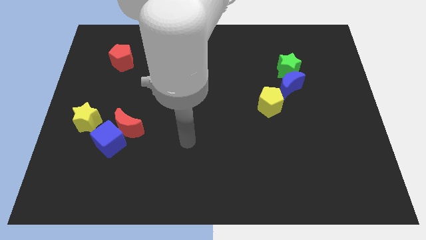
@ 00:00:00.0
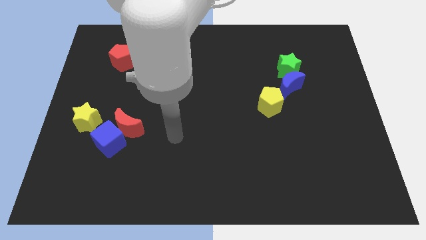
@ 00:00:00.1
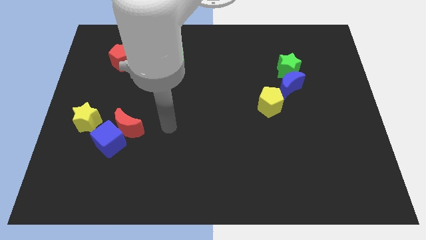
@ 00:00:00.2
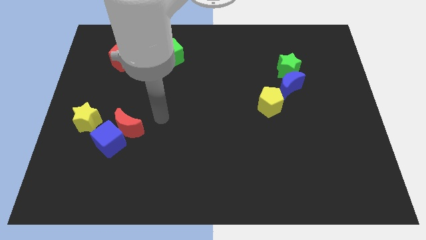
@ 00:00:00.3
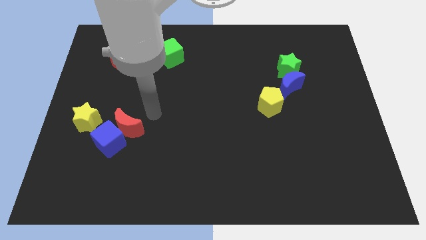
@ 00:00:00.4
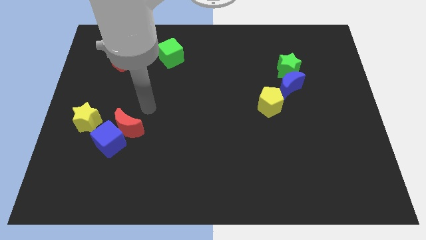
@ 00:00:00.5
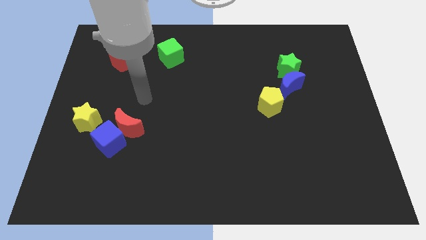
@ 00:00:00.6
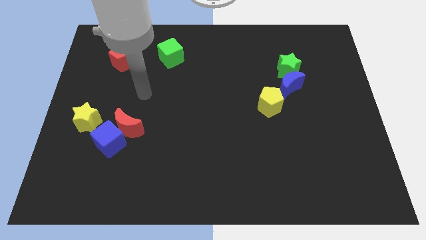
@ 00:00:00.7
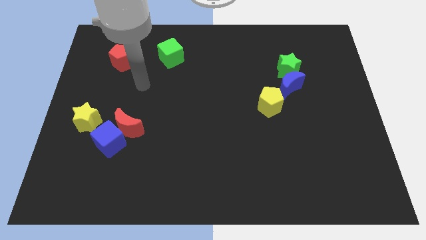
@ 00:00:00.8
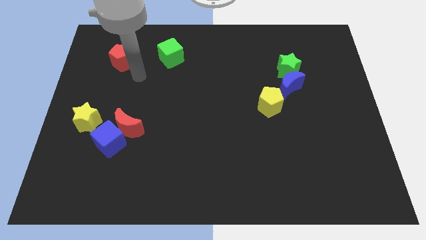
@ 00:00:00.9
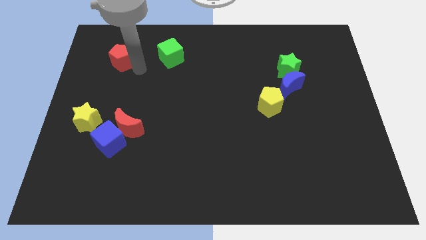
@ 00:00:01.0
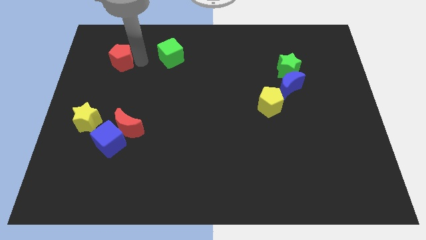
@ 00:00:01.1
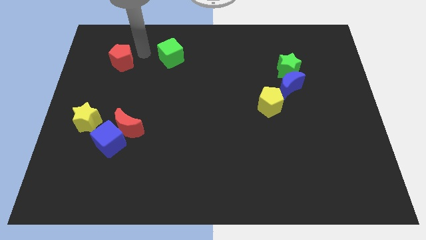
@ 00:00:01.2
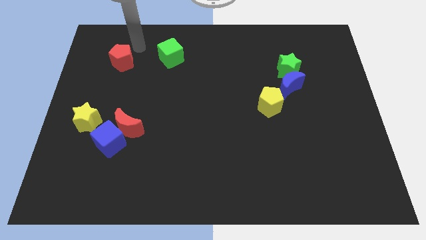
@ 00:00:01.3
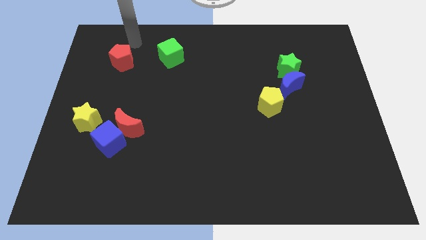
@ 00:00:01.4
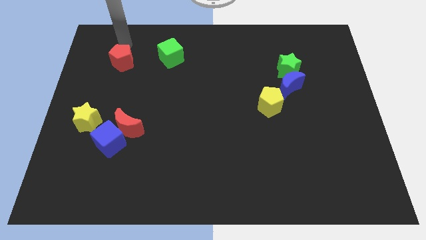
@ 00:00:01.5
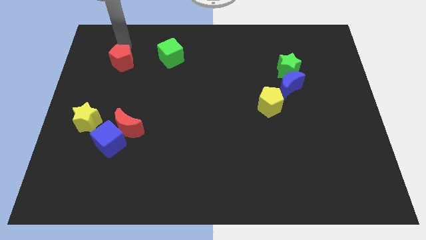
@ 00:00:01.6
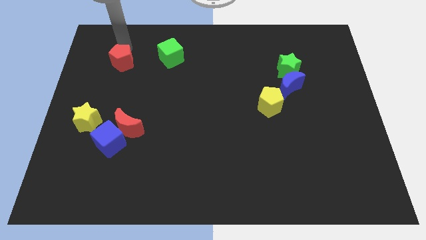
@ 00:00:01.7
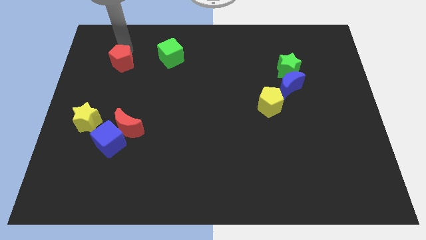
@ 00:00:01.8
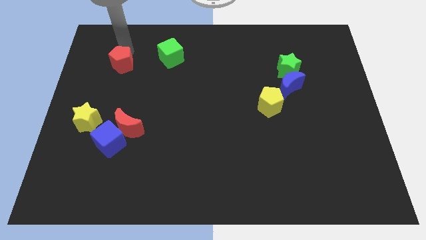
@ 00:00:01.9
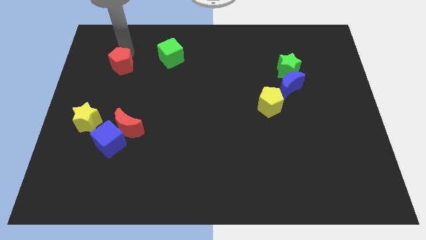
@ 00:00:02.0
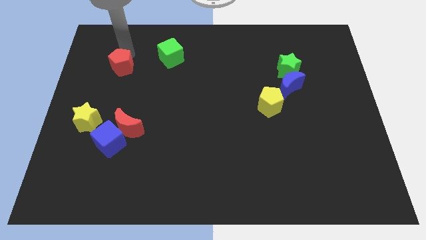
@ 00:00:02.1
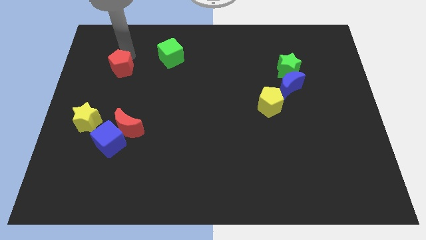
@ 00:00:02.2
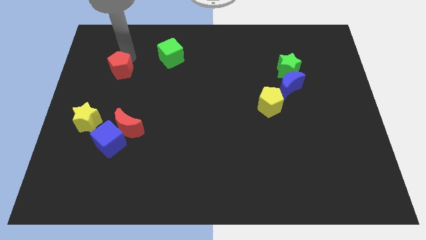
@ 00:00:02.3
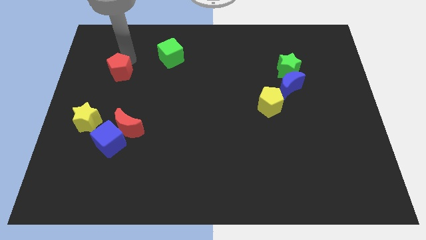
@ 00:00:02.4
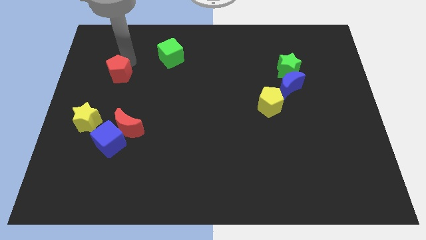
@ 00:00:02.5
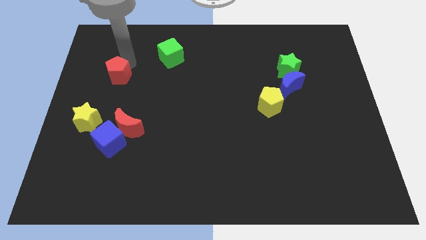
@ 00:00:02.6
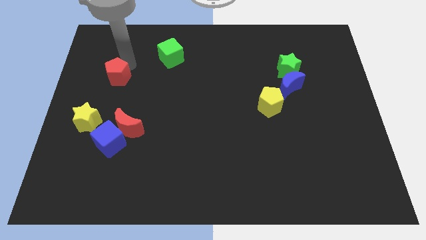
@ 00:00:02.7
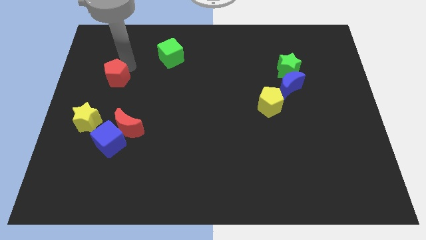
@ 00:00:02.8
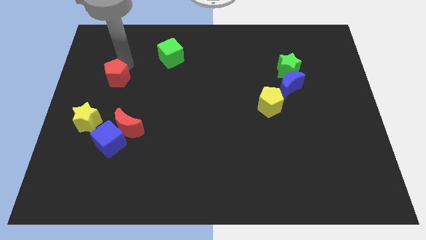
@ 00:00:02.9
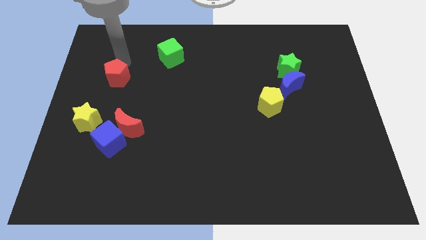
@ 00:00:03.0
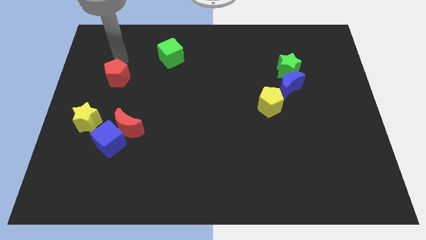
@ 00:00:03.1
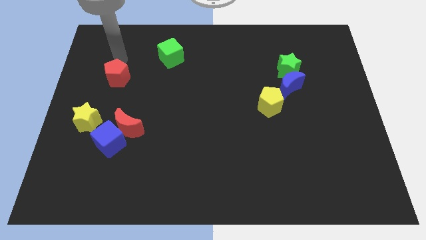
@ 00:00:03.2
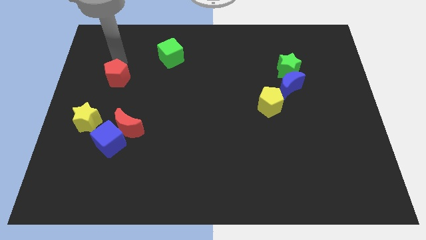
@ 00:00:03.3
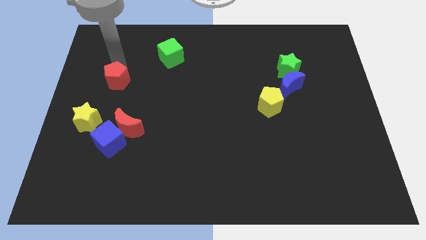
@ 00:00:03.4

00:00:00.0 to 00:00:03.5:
slide the red pentagon a little down

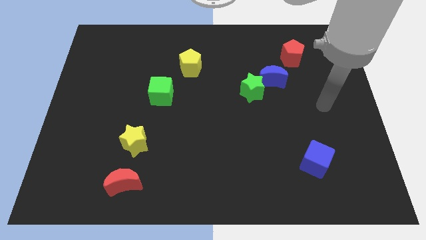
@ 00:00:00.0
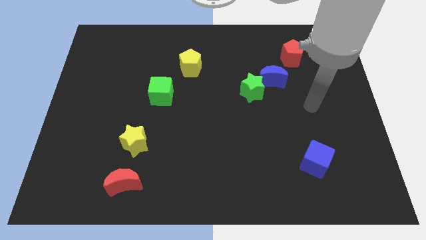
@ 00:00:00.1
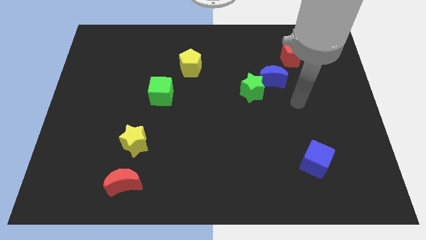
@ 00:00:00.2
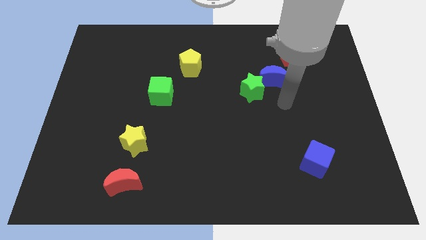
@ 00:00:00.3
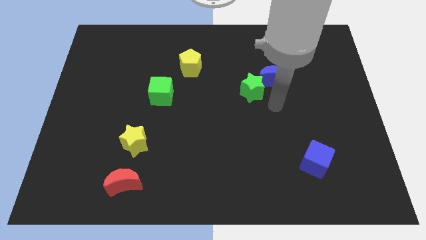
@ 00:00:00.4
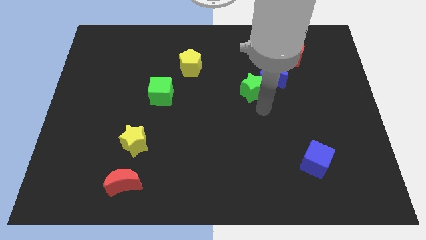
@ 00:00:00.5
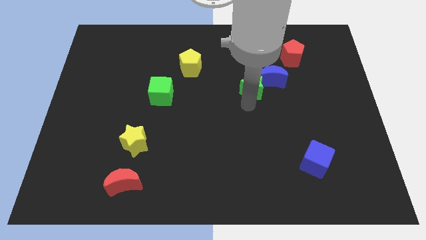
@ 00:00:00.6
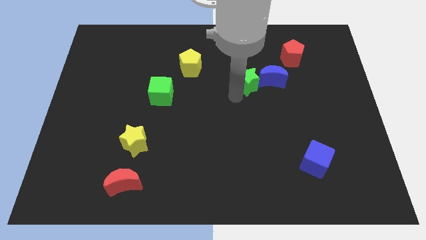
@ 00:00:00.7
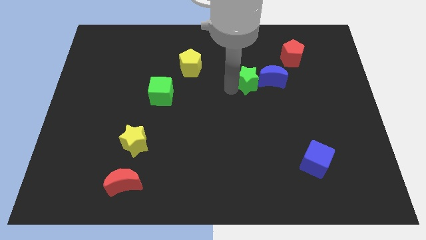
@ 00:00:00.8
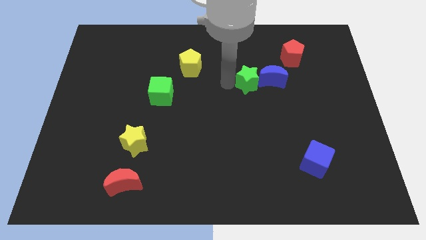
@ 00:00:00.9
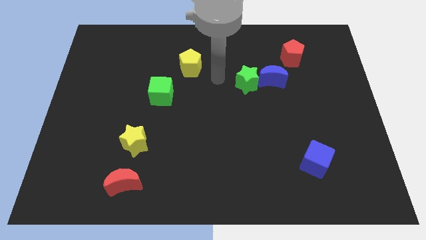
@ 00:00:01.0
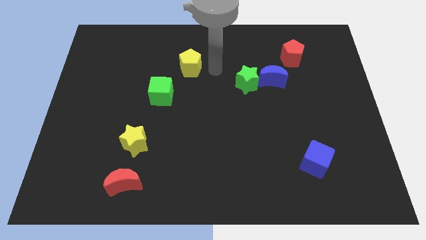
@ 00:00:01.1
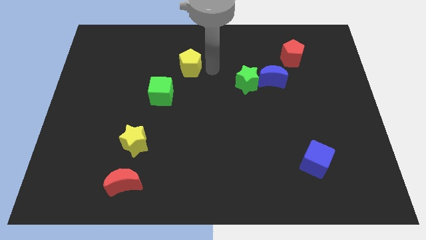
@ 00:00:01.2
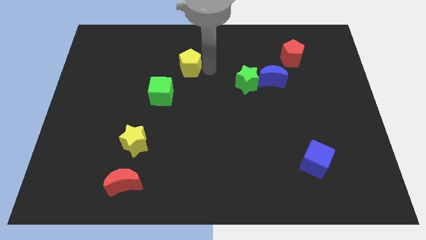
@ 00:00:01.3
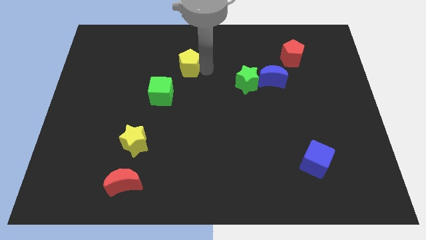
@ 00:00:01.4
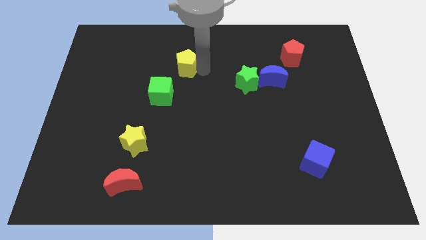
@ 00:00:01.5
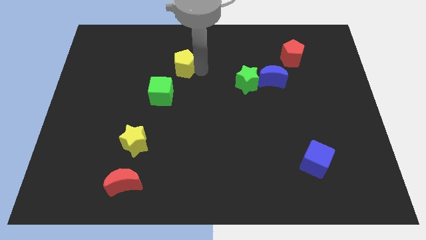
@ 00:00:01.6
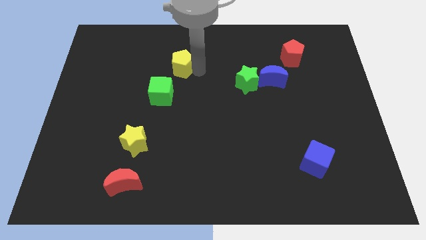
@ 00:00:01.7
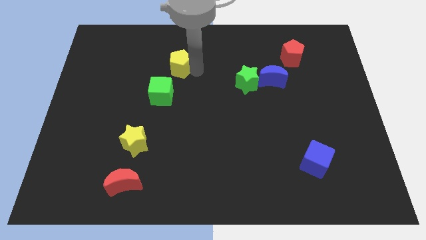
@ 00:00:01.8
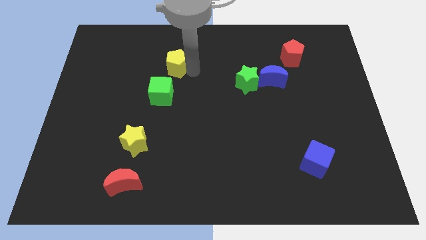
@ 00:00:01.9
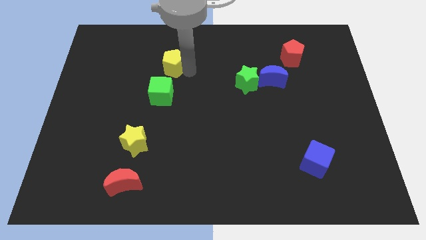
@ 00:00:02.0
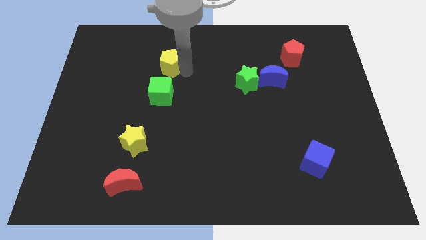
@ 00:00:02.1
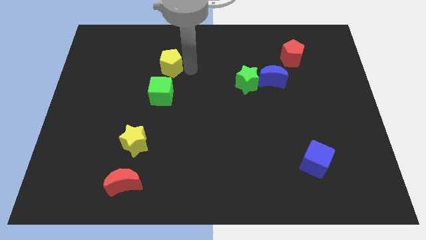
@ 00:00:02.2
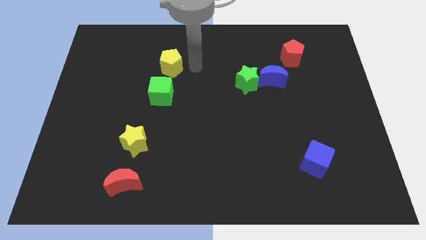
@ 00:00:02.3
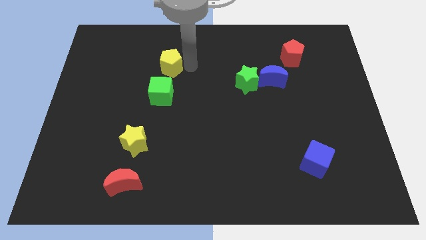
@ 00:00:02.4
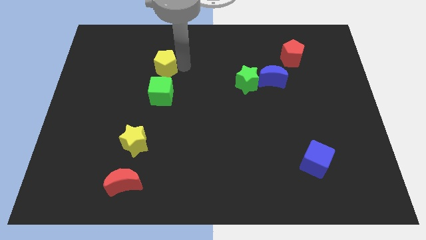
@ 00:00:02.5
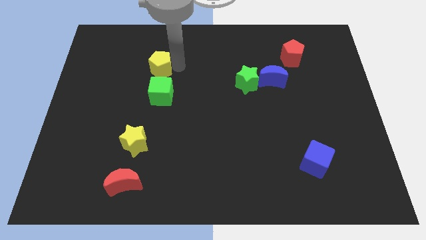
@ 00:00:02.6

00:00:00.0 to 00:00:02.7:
slightly slide the yellow pentagon to the left

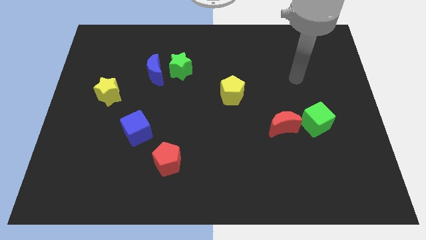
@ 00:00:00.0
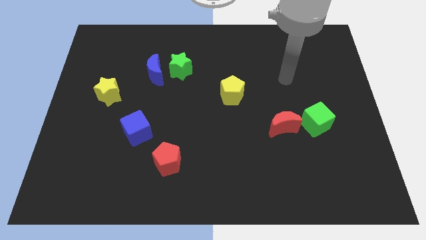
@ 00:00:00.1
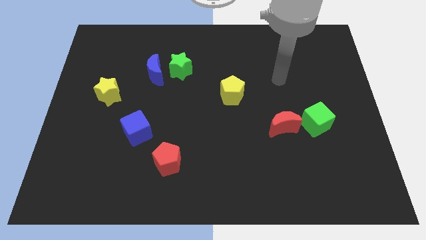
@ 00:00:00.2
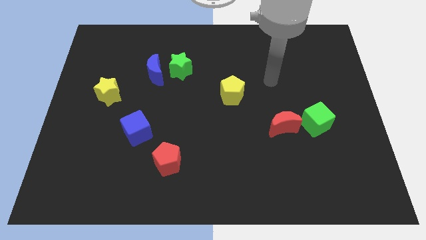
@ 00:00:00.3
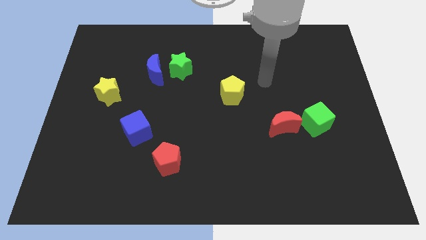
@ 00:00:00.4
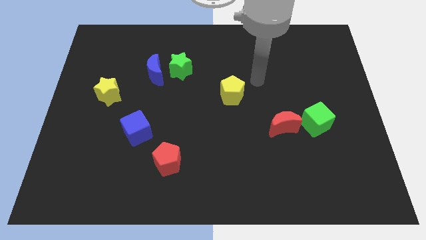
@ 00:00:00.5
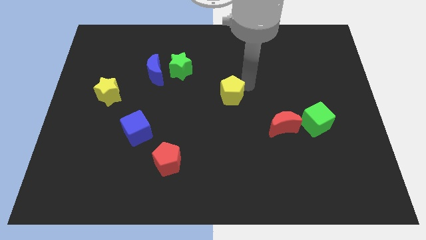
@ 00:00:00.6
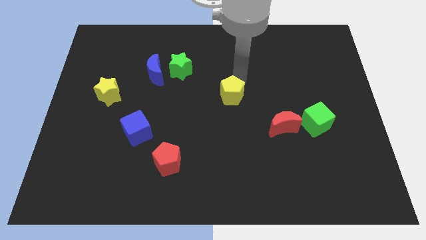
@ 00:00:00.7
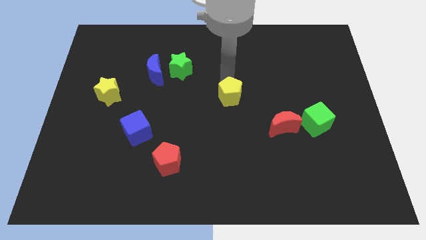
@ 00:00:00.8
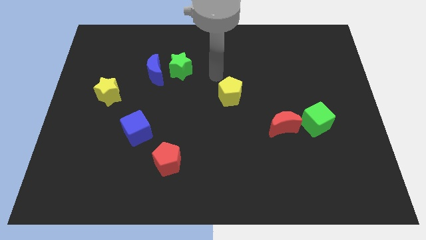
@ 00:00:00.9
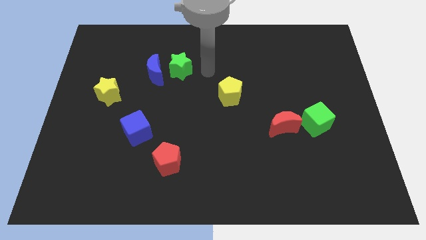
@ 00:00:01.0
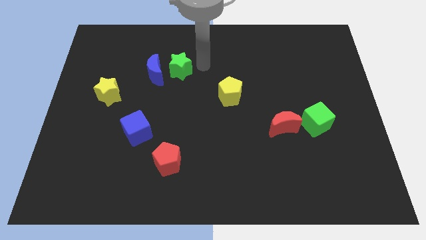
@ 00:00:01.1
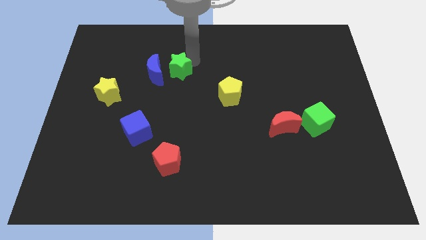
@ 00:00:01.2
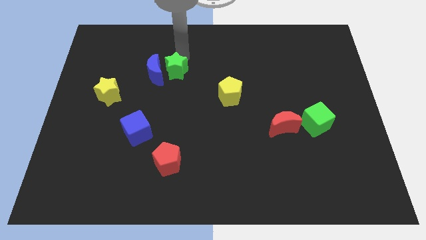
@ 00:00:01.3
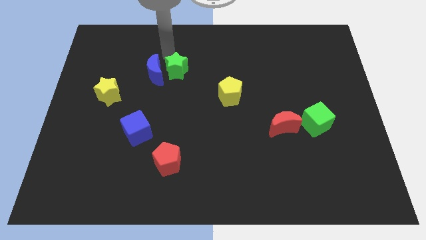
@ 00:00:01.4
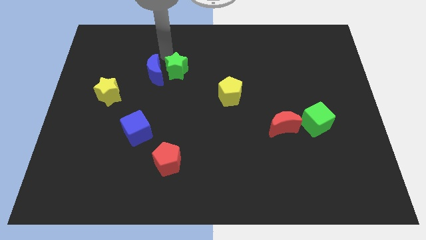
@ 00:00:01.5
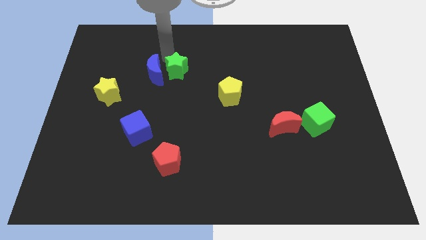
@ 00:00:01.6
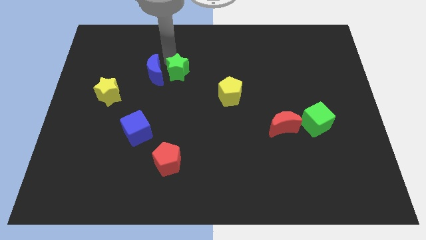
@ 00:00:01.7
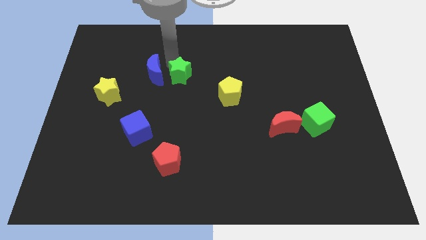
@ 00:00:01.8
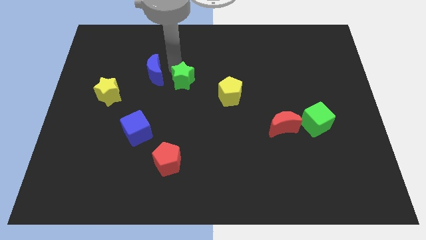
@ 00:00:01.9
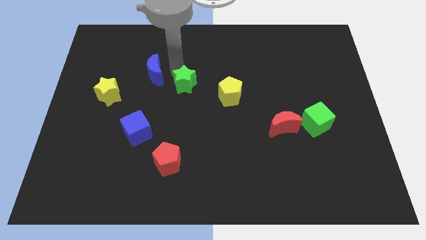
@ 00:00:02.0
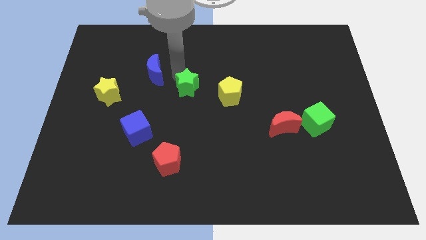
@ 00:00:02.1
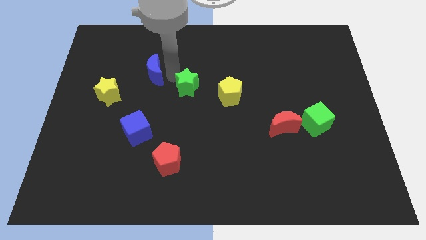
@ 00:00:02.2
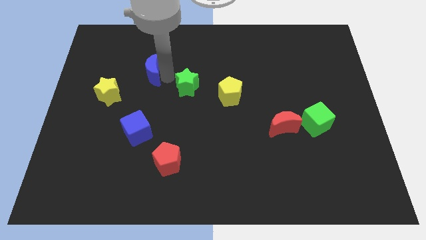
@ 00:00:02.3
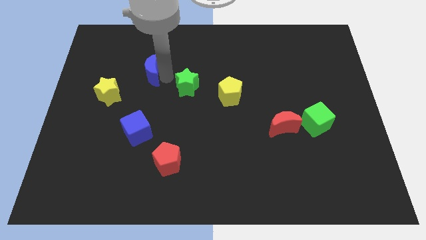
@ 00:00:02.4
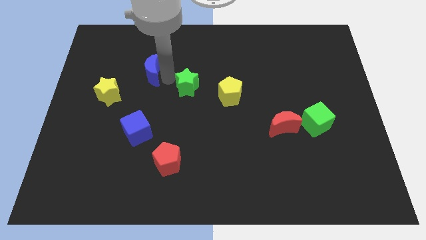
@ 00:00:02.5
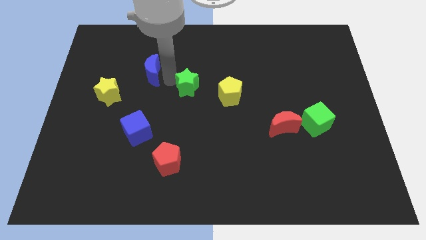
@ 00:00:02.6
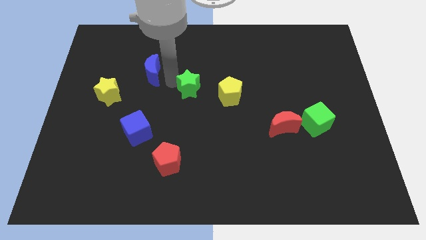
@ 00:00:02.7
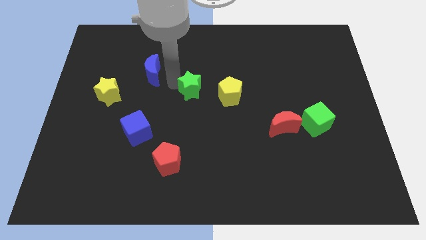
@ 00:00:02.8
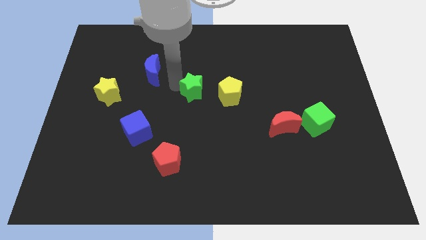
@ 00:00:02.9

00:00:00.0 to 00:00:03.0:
slightly move the green star diagonally down and to the right
